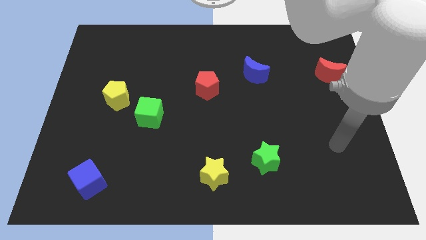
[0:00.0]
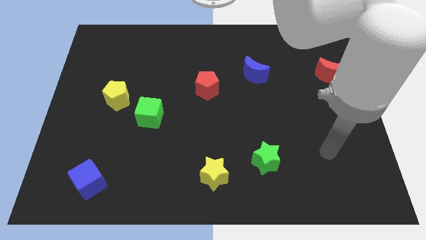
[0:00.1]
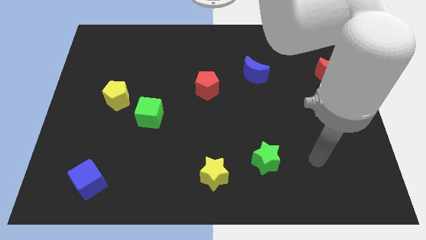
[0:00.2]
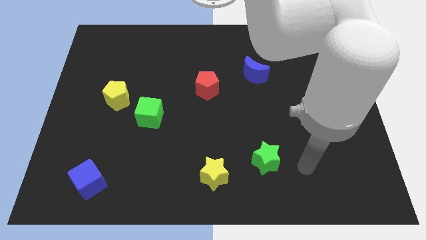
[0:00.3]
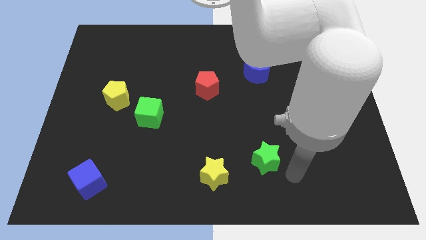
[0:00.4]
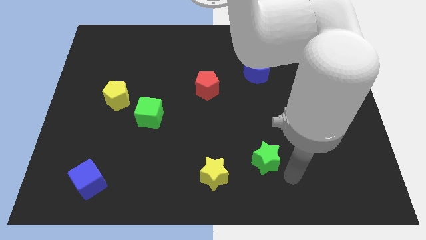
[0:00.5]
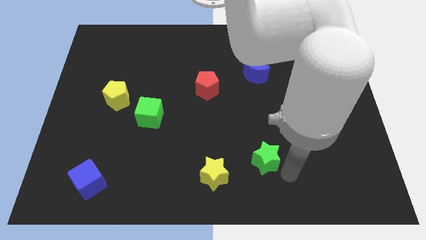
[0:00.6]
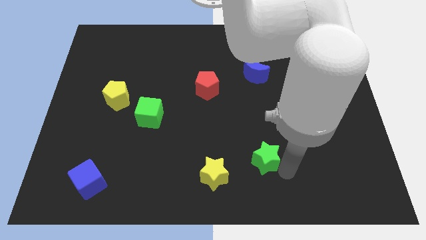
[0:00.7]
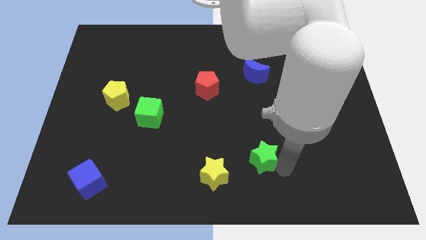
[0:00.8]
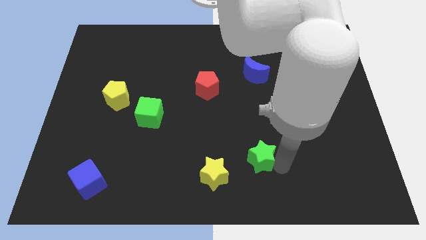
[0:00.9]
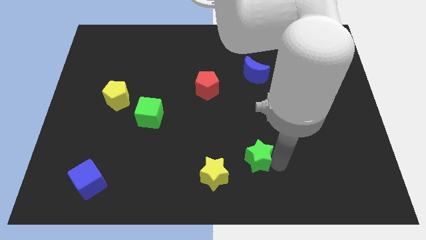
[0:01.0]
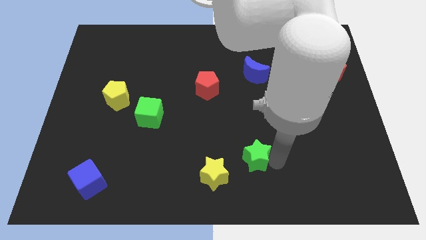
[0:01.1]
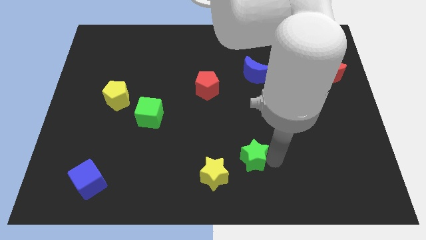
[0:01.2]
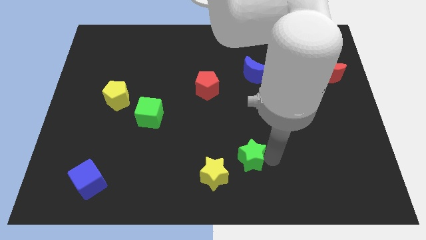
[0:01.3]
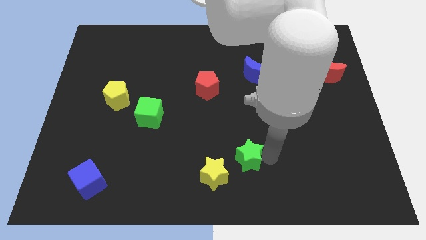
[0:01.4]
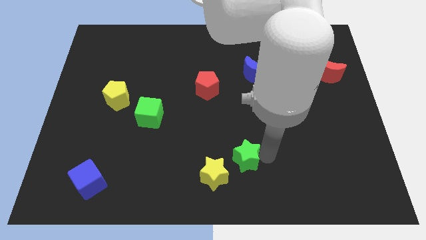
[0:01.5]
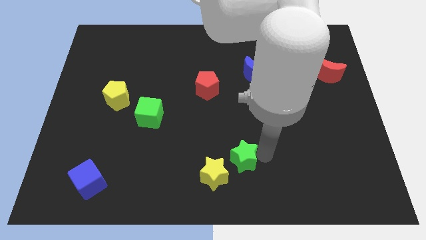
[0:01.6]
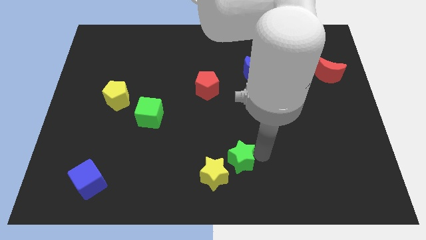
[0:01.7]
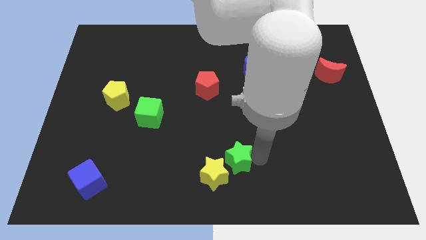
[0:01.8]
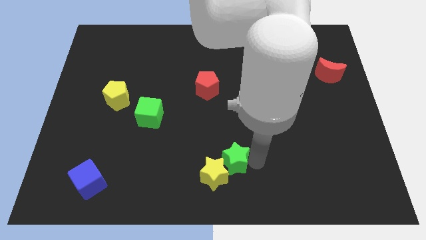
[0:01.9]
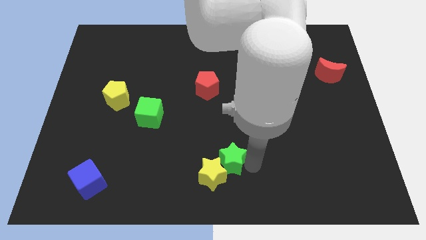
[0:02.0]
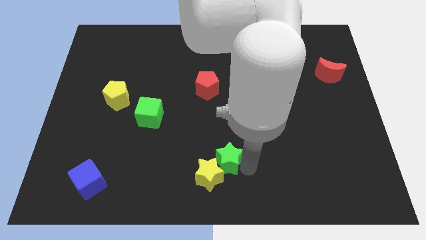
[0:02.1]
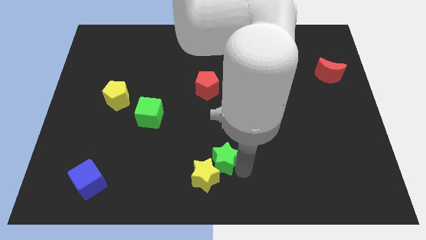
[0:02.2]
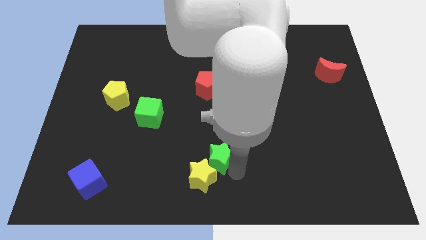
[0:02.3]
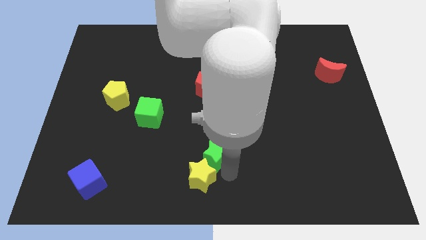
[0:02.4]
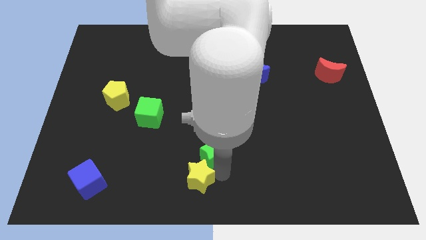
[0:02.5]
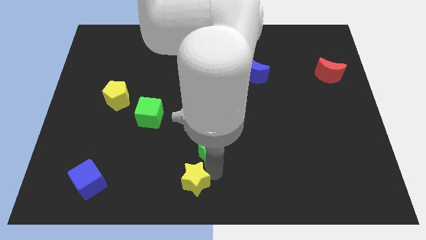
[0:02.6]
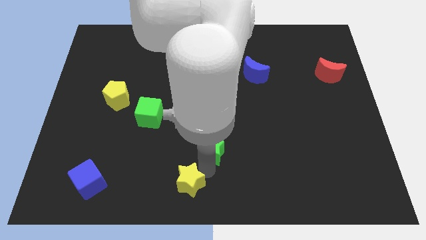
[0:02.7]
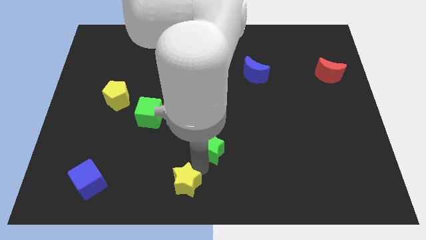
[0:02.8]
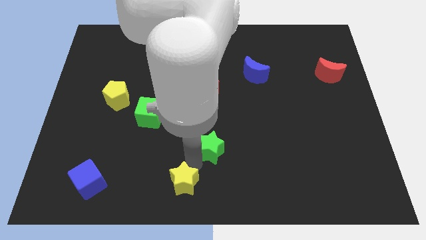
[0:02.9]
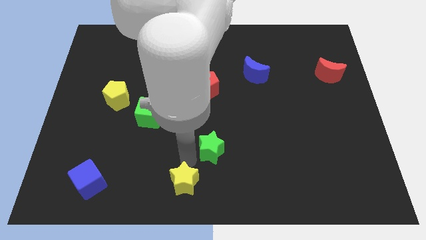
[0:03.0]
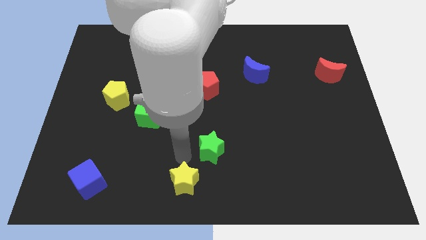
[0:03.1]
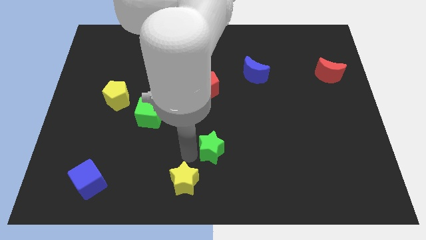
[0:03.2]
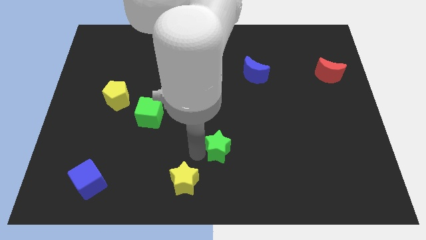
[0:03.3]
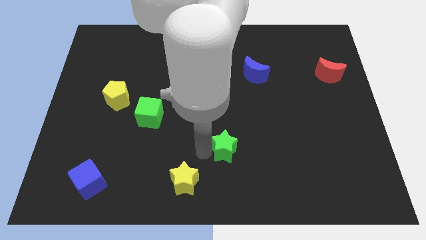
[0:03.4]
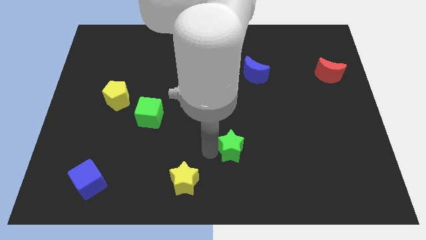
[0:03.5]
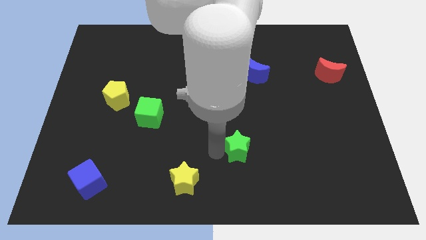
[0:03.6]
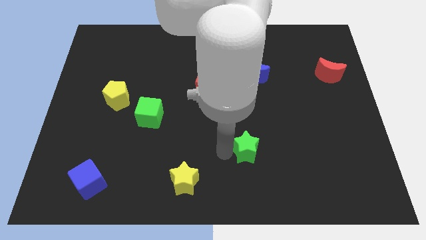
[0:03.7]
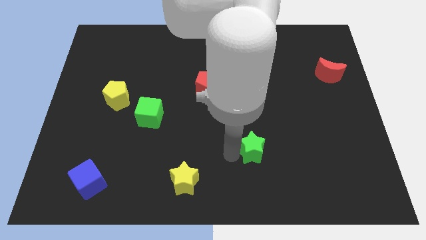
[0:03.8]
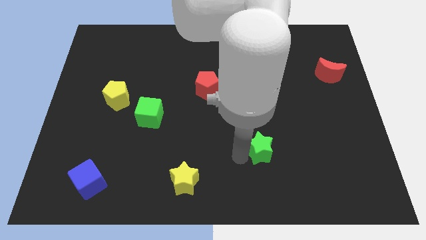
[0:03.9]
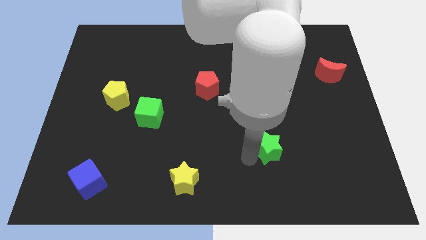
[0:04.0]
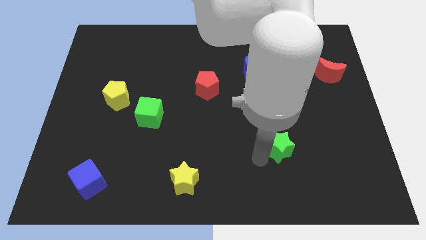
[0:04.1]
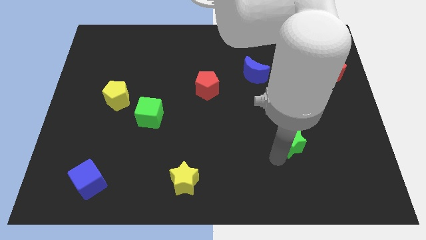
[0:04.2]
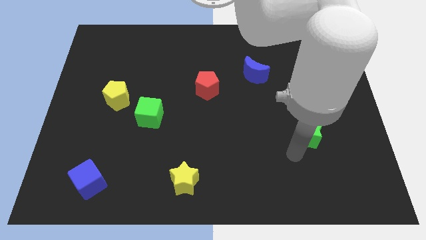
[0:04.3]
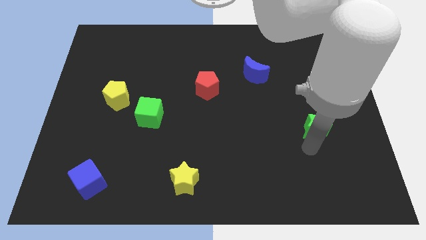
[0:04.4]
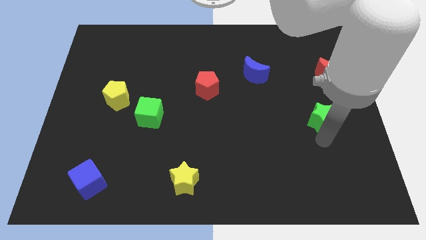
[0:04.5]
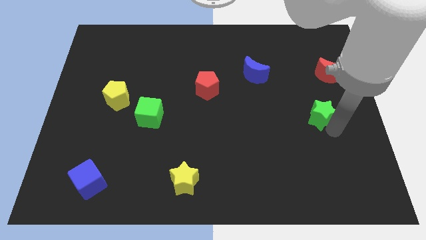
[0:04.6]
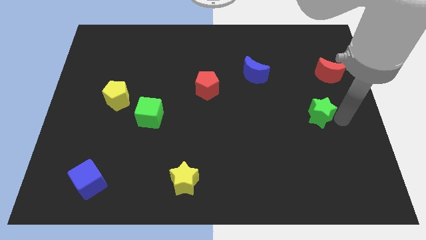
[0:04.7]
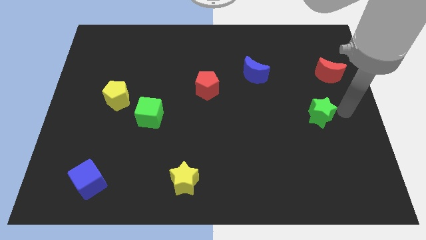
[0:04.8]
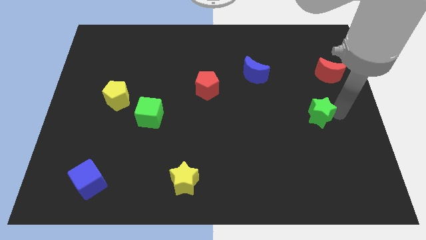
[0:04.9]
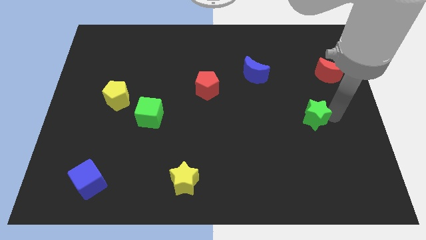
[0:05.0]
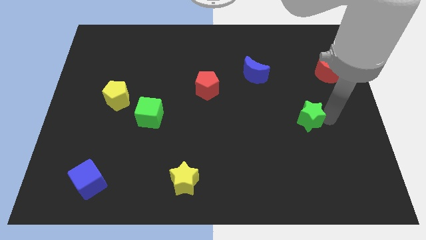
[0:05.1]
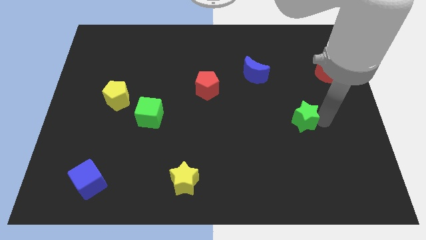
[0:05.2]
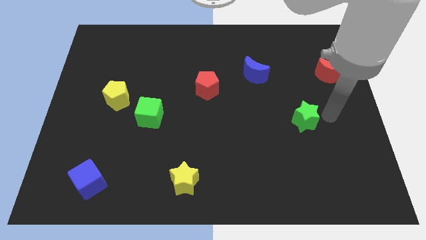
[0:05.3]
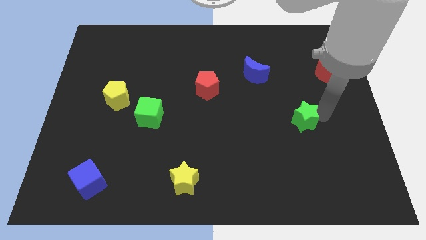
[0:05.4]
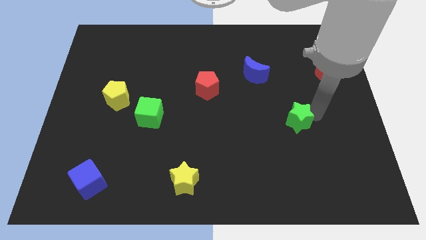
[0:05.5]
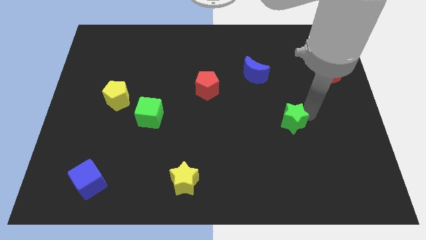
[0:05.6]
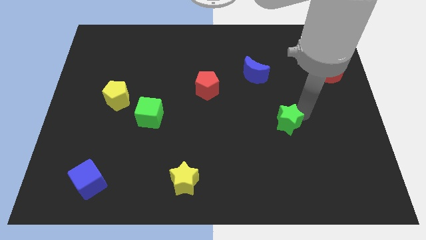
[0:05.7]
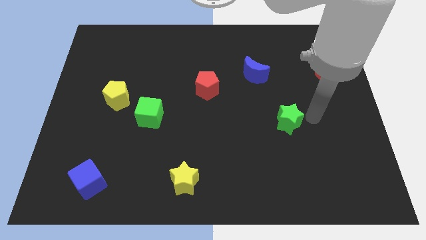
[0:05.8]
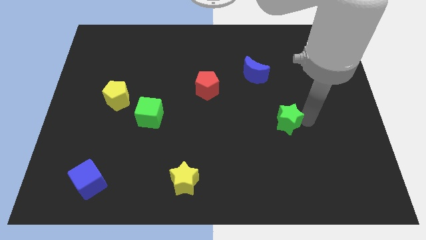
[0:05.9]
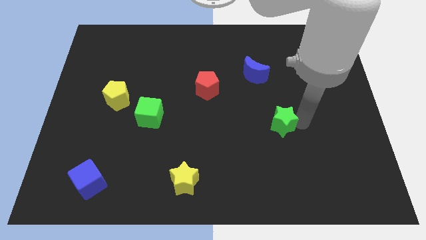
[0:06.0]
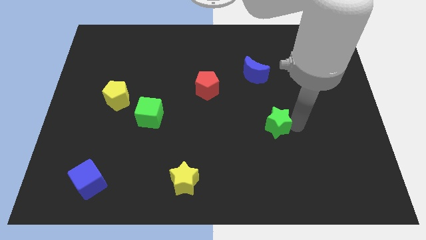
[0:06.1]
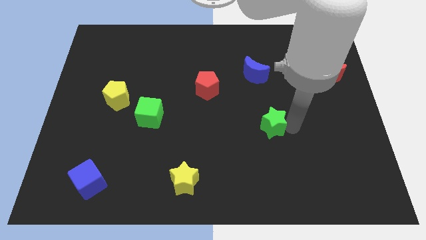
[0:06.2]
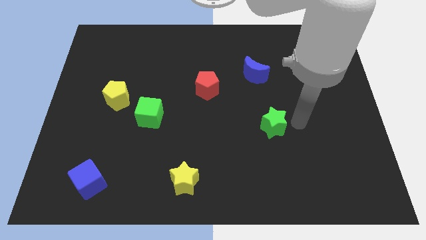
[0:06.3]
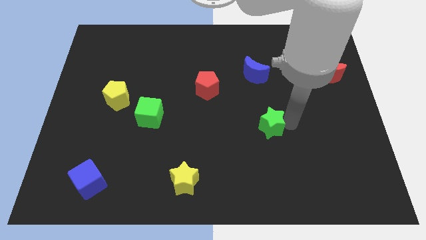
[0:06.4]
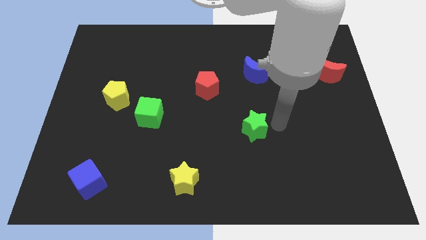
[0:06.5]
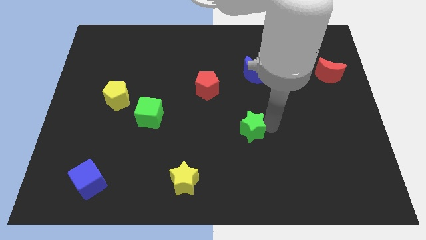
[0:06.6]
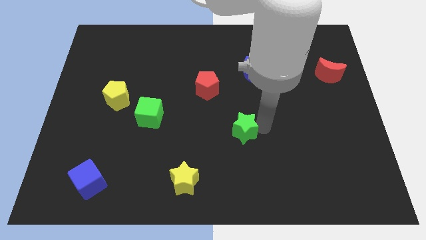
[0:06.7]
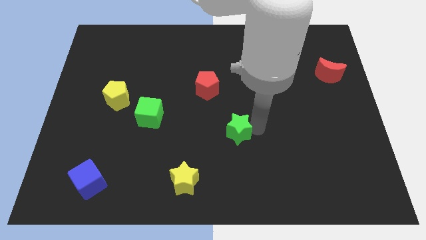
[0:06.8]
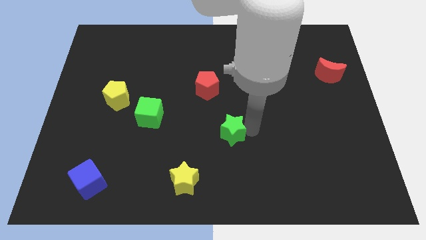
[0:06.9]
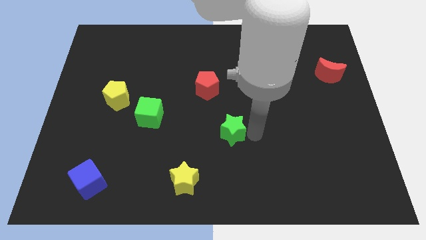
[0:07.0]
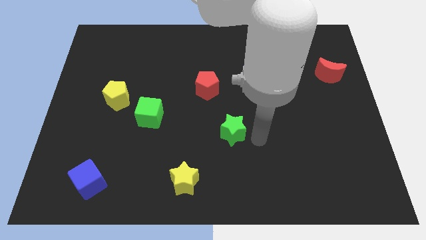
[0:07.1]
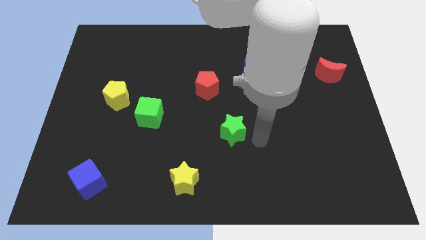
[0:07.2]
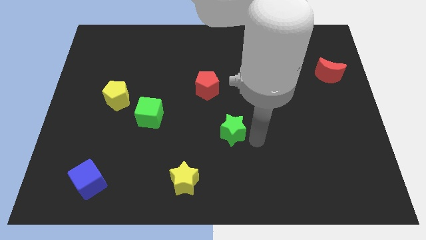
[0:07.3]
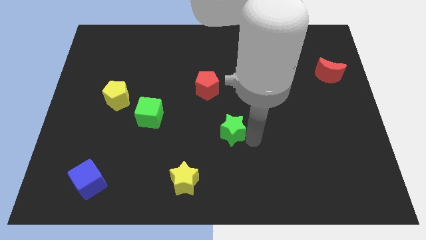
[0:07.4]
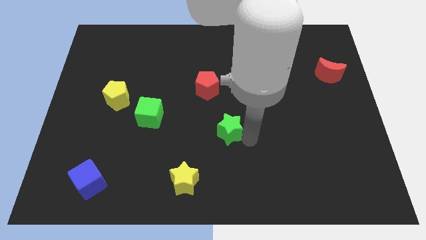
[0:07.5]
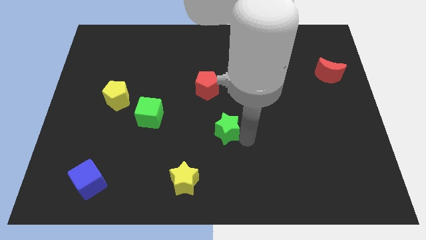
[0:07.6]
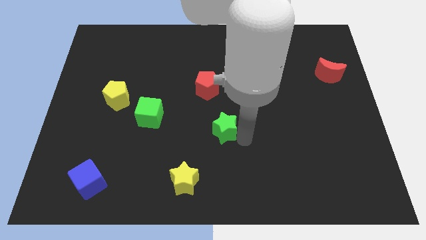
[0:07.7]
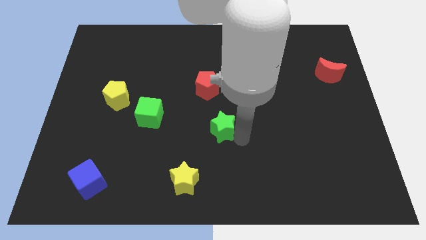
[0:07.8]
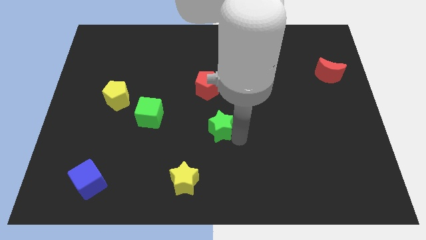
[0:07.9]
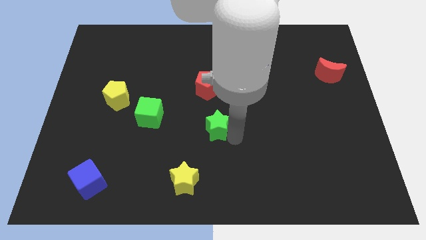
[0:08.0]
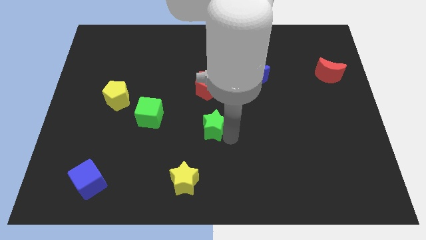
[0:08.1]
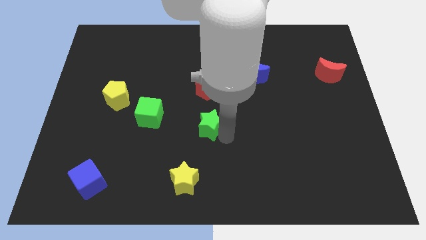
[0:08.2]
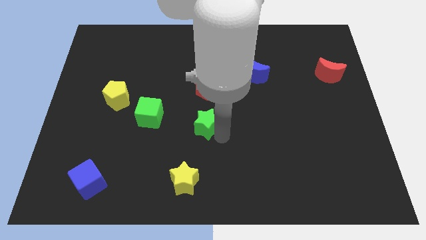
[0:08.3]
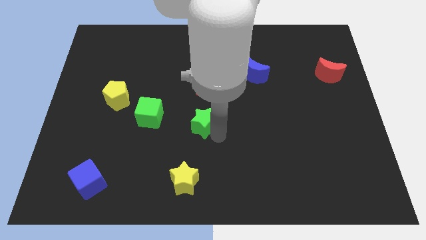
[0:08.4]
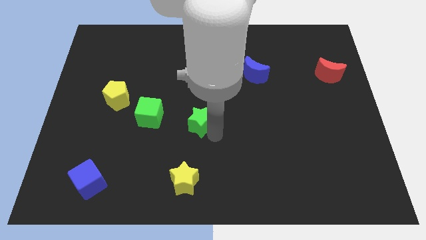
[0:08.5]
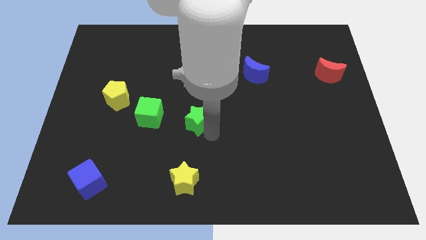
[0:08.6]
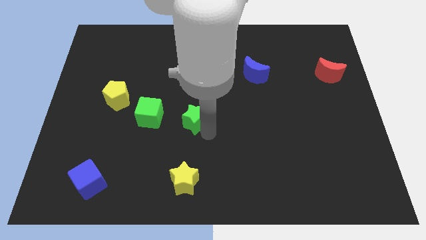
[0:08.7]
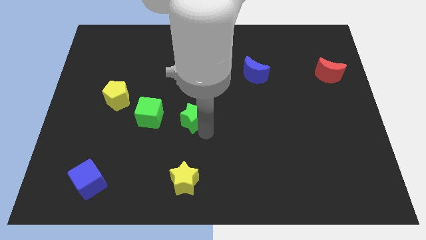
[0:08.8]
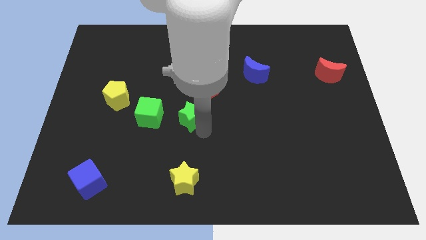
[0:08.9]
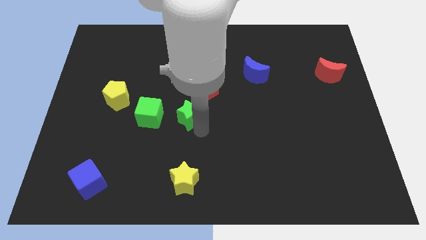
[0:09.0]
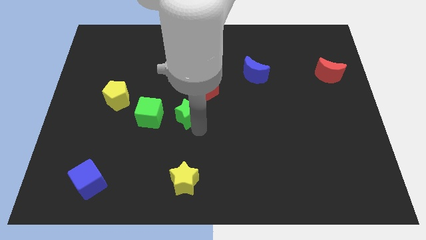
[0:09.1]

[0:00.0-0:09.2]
push the green star upwards and then left
